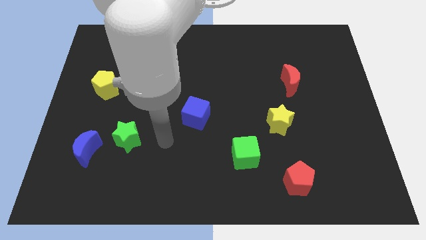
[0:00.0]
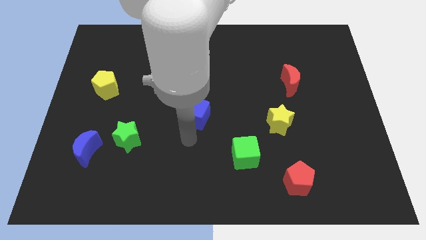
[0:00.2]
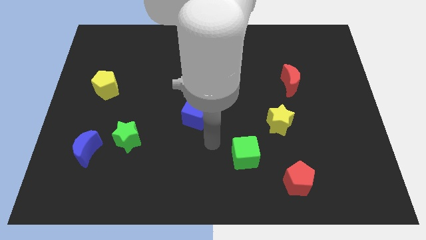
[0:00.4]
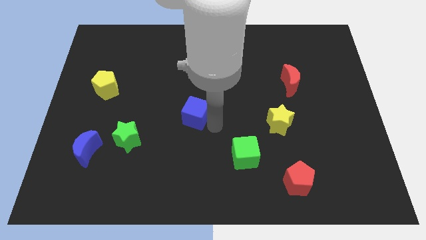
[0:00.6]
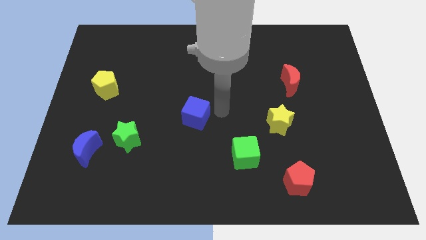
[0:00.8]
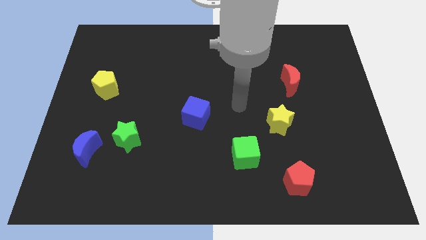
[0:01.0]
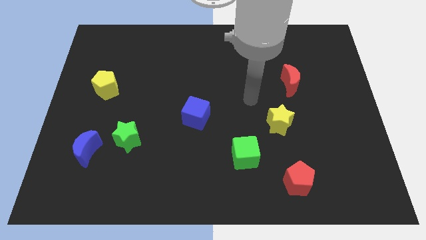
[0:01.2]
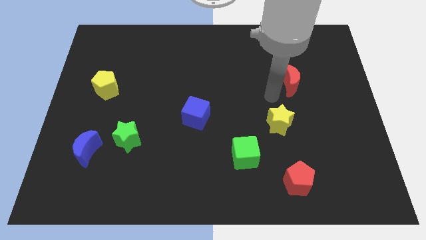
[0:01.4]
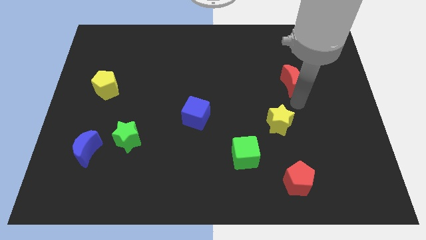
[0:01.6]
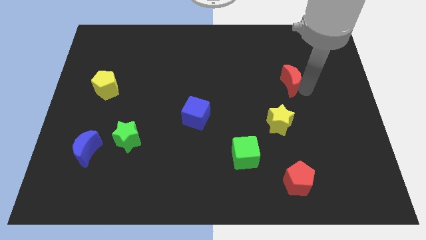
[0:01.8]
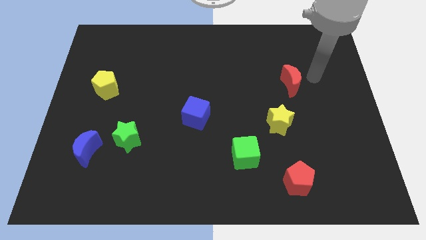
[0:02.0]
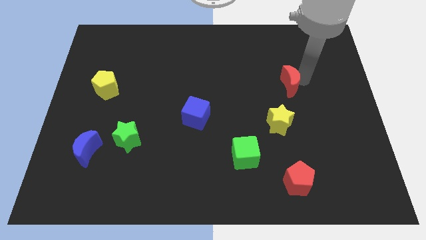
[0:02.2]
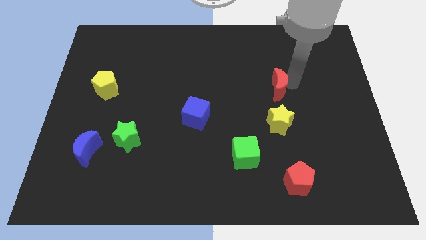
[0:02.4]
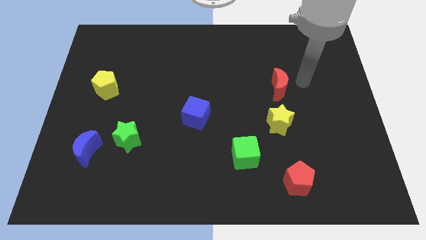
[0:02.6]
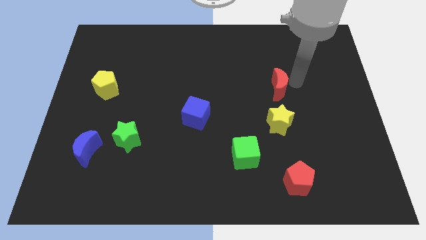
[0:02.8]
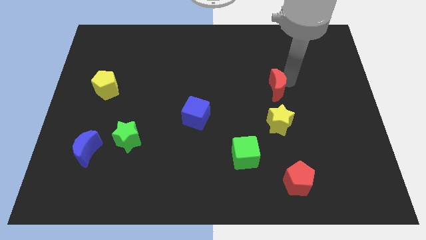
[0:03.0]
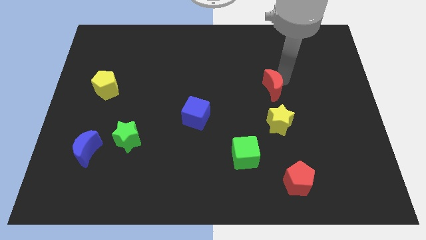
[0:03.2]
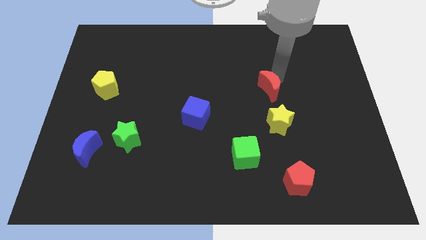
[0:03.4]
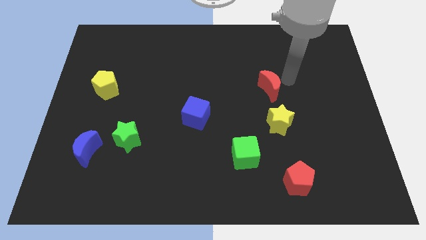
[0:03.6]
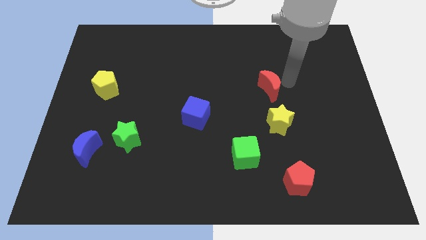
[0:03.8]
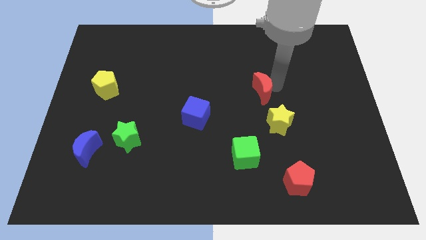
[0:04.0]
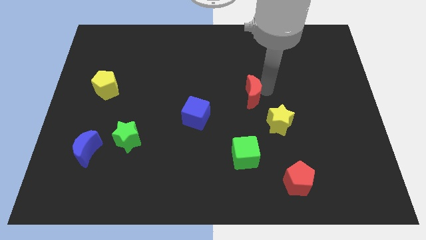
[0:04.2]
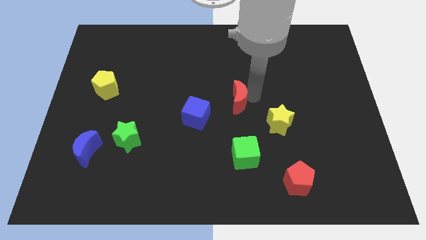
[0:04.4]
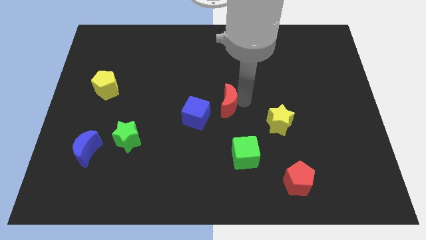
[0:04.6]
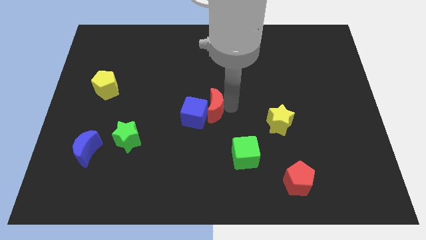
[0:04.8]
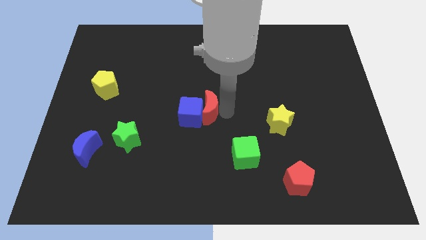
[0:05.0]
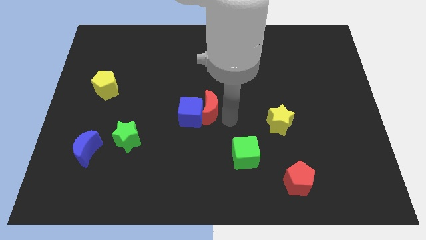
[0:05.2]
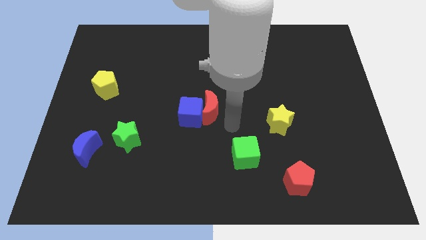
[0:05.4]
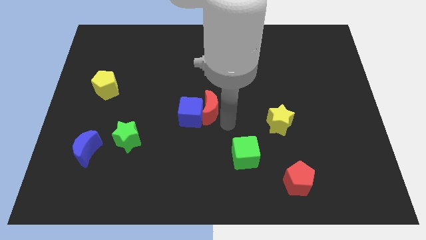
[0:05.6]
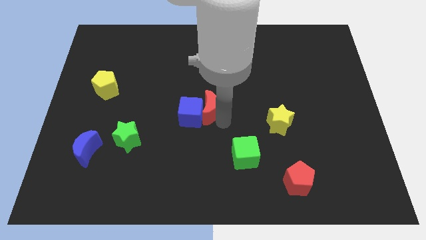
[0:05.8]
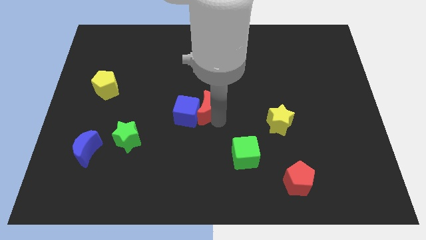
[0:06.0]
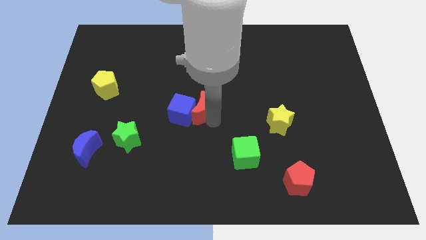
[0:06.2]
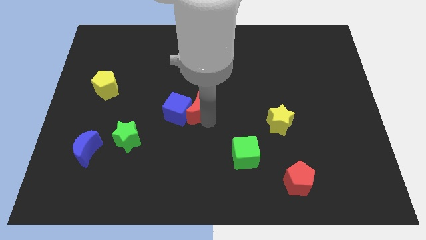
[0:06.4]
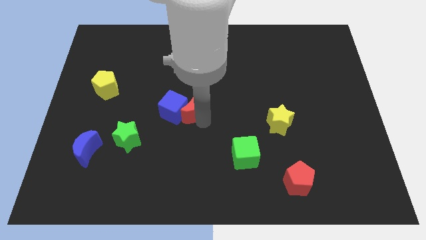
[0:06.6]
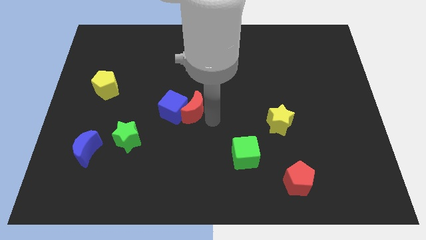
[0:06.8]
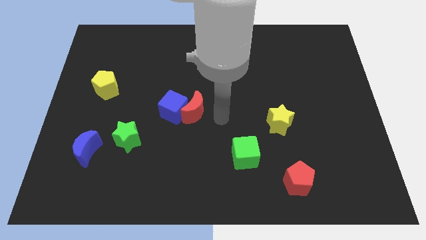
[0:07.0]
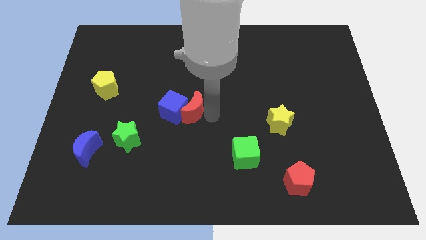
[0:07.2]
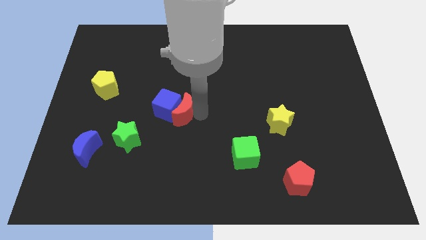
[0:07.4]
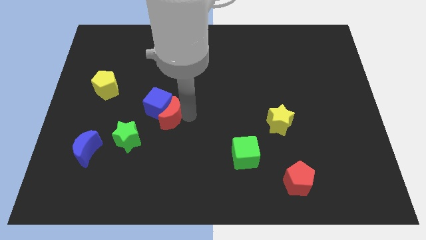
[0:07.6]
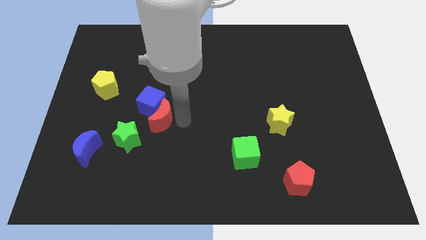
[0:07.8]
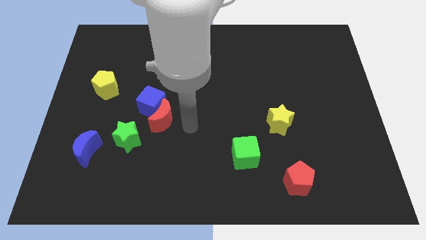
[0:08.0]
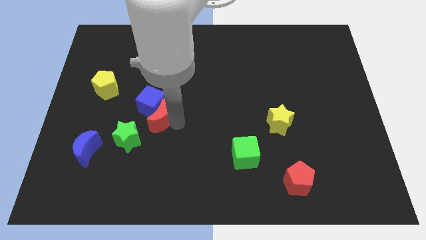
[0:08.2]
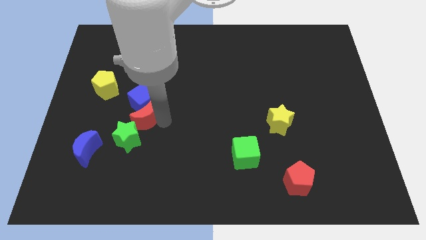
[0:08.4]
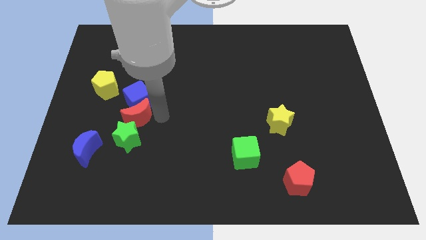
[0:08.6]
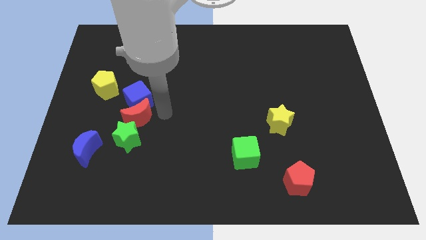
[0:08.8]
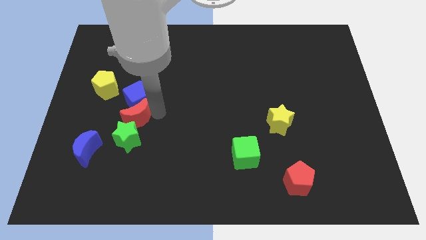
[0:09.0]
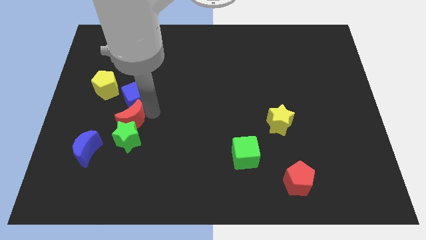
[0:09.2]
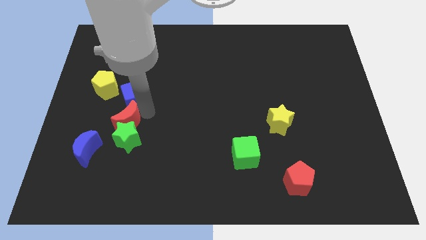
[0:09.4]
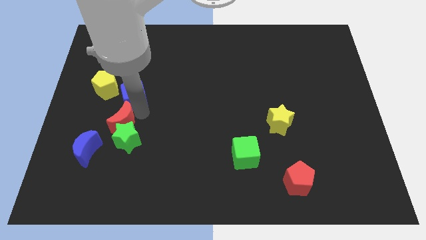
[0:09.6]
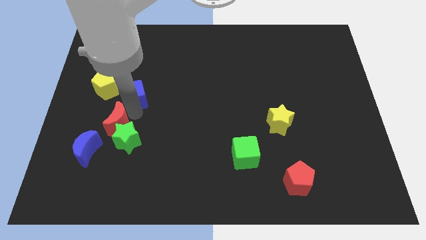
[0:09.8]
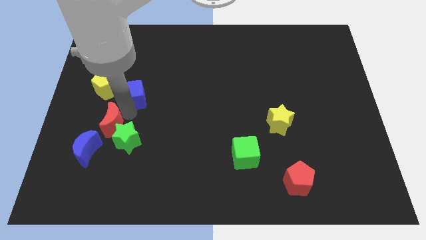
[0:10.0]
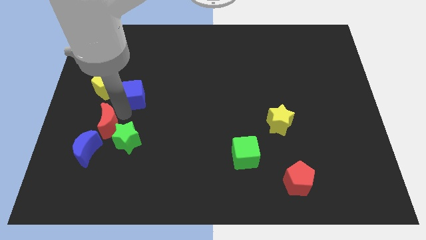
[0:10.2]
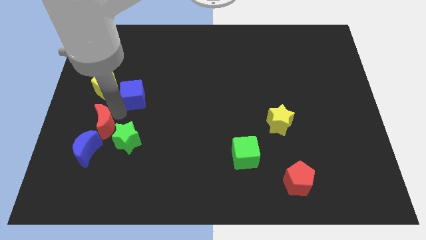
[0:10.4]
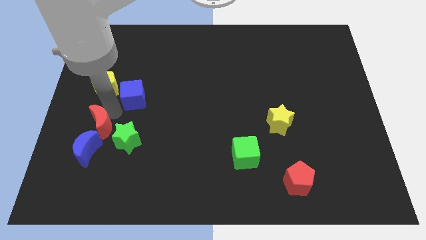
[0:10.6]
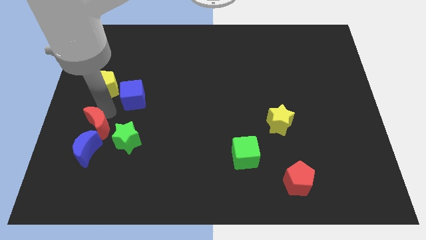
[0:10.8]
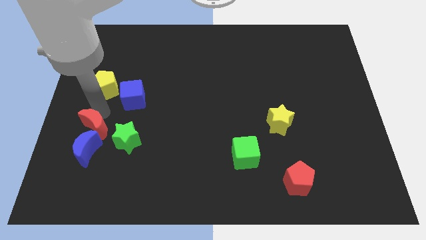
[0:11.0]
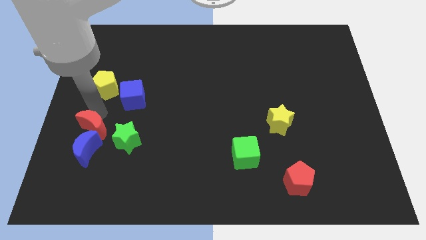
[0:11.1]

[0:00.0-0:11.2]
push the red moon next to the blue moon
